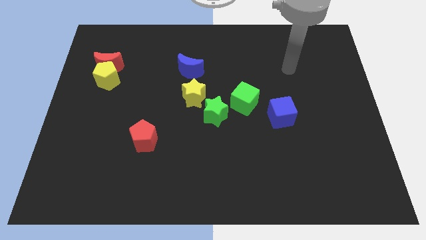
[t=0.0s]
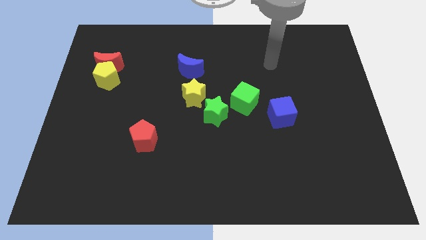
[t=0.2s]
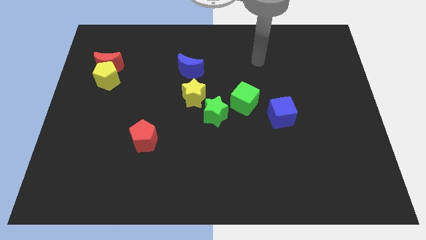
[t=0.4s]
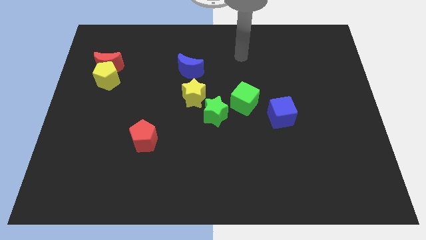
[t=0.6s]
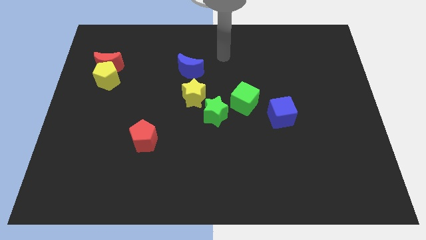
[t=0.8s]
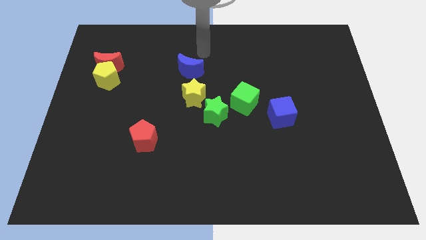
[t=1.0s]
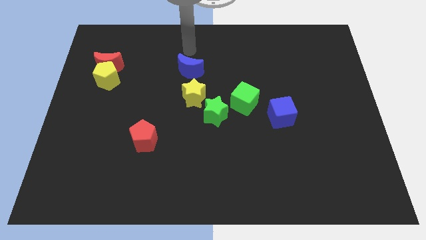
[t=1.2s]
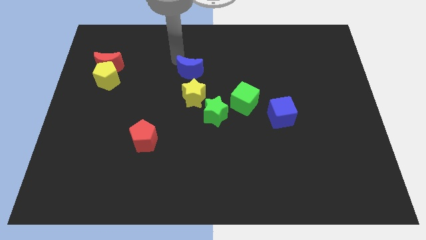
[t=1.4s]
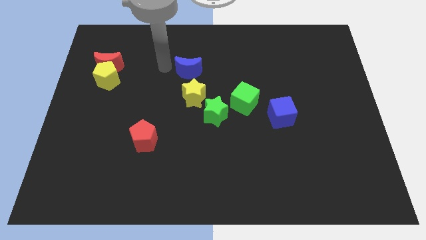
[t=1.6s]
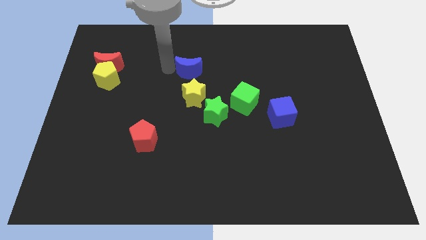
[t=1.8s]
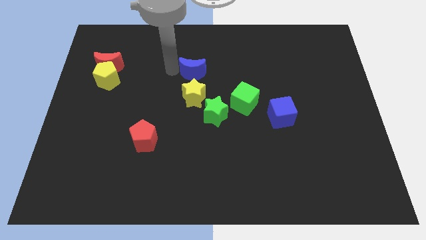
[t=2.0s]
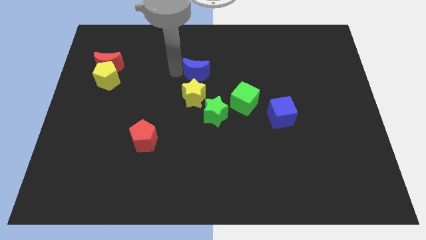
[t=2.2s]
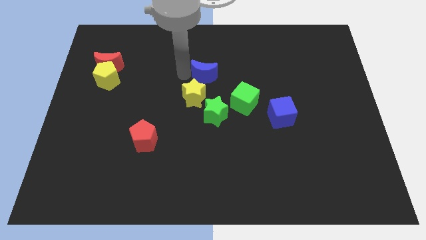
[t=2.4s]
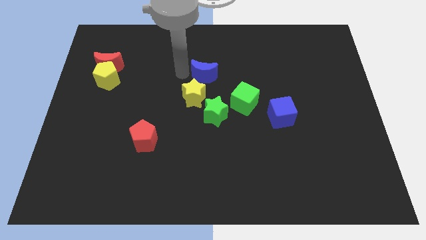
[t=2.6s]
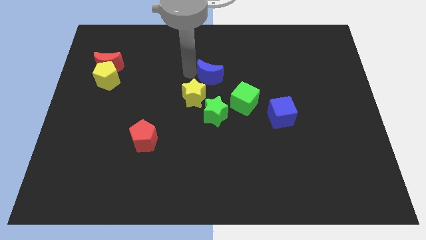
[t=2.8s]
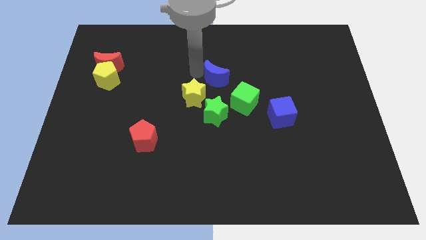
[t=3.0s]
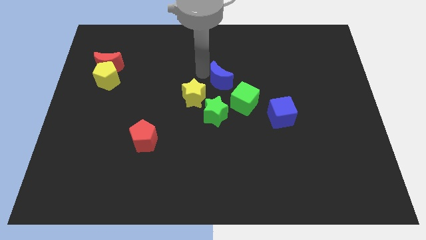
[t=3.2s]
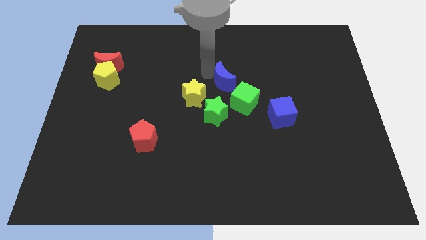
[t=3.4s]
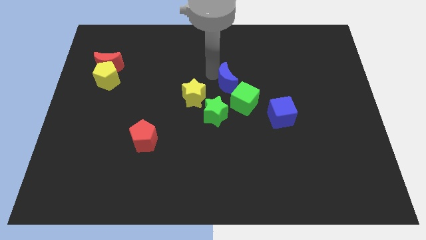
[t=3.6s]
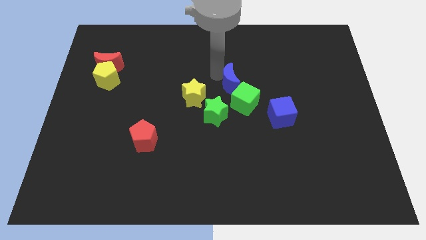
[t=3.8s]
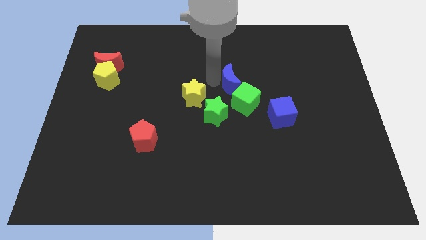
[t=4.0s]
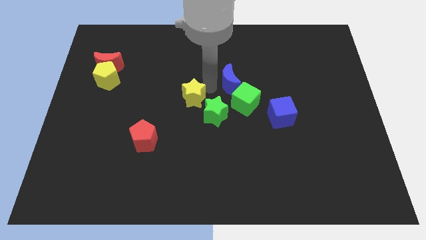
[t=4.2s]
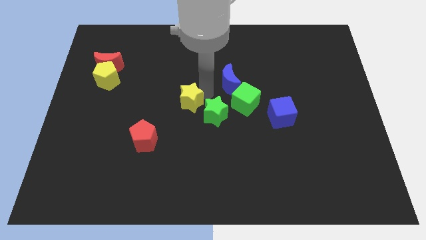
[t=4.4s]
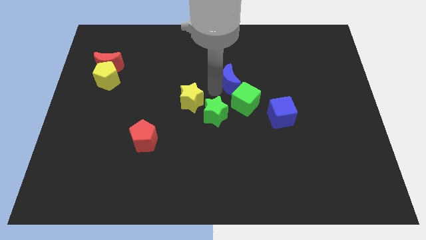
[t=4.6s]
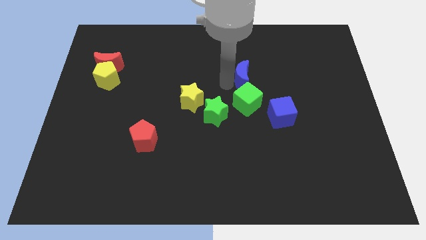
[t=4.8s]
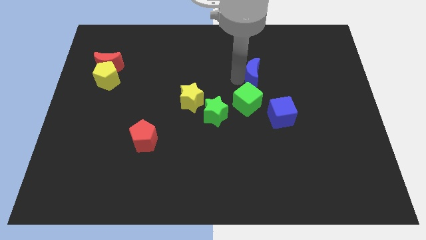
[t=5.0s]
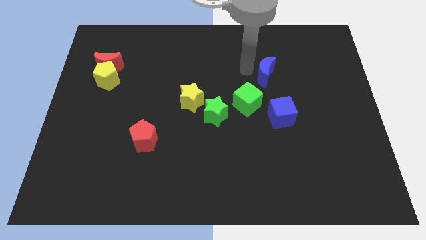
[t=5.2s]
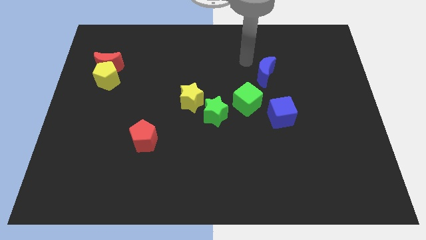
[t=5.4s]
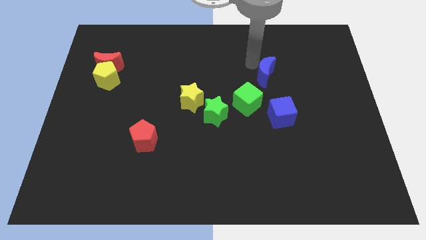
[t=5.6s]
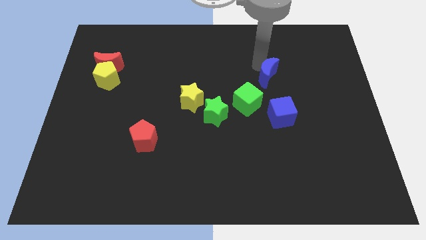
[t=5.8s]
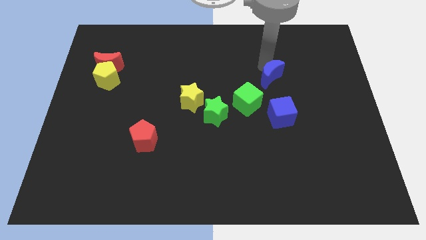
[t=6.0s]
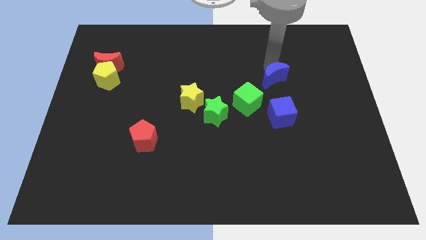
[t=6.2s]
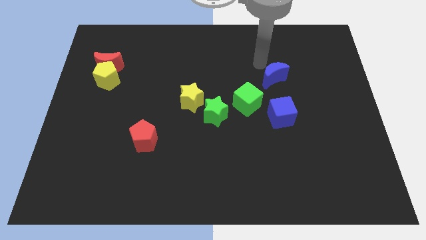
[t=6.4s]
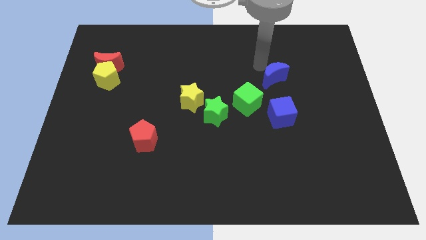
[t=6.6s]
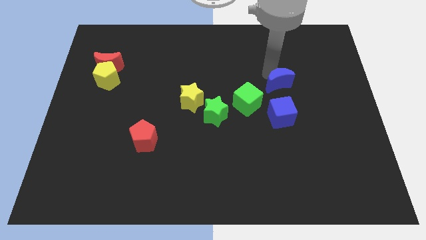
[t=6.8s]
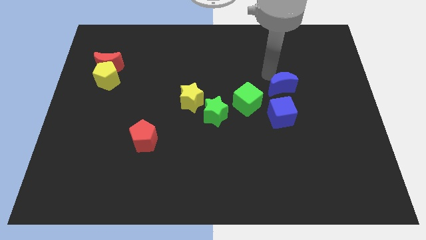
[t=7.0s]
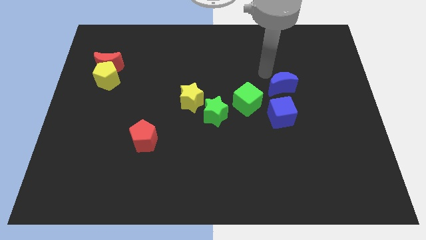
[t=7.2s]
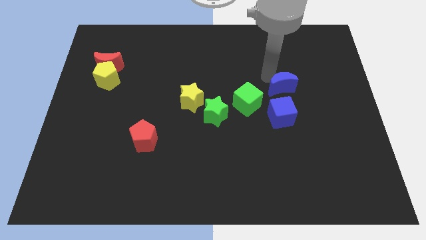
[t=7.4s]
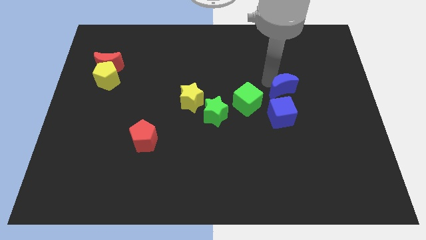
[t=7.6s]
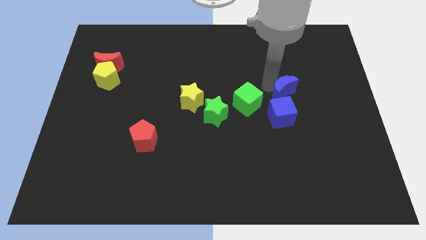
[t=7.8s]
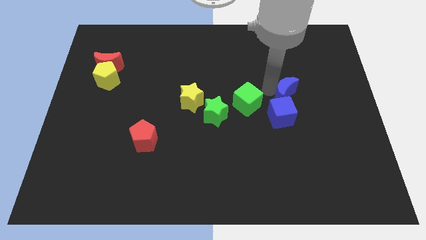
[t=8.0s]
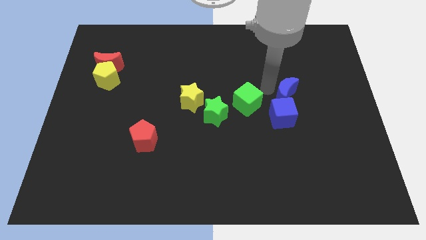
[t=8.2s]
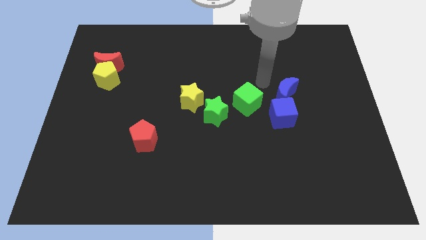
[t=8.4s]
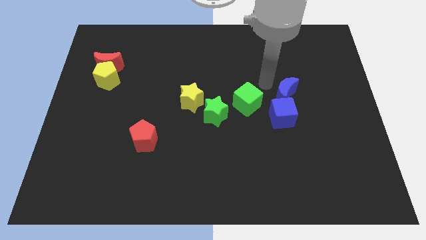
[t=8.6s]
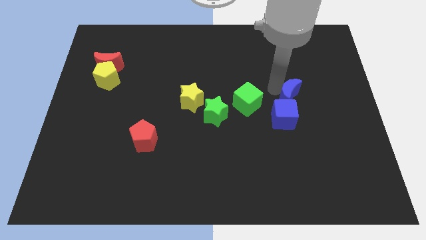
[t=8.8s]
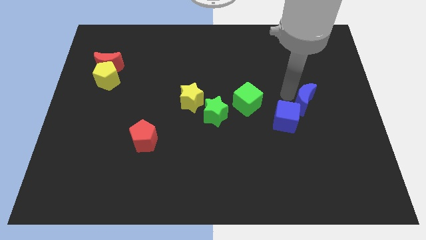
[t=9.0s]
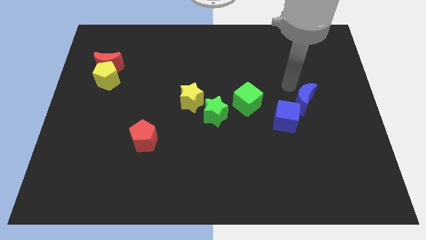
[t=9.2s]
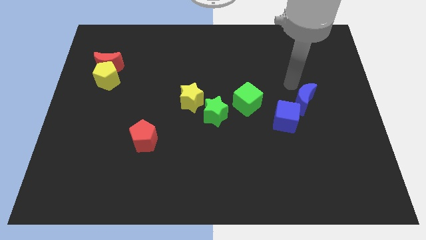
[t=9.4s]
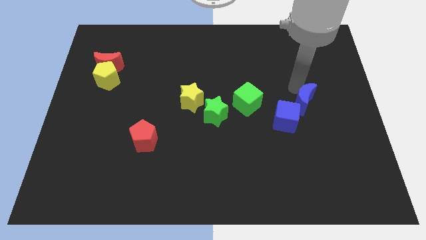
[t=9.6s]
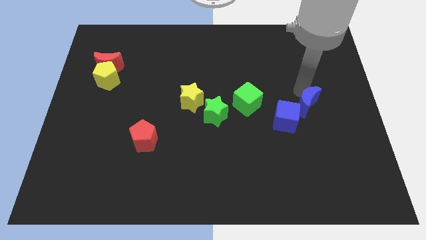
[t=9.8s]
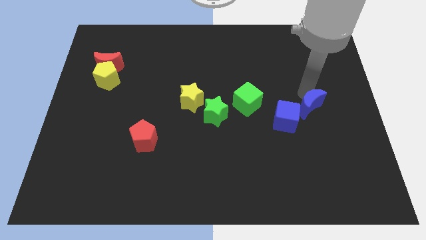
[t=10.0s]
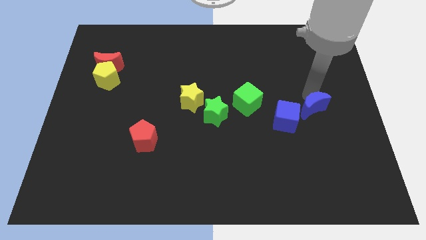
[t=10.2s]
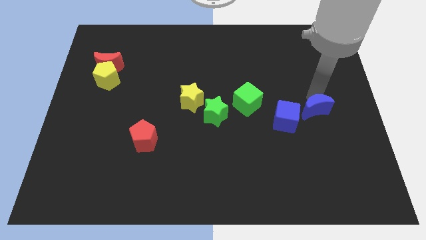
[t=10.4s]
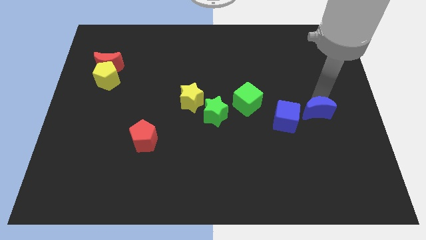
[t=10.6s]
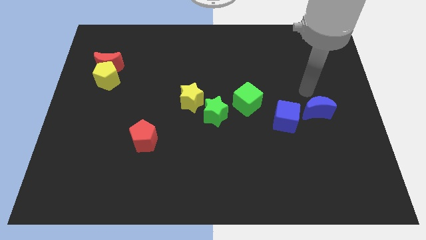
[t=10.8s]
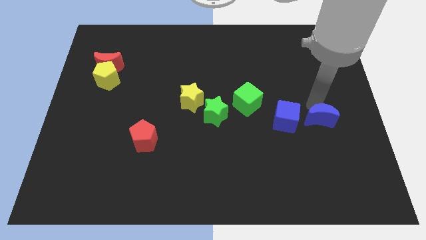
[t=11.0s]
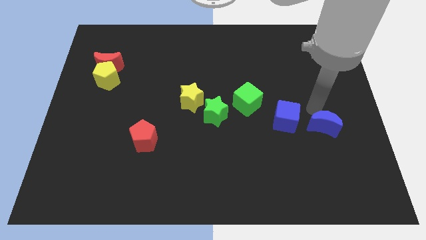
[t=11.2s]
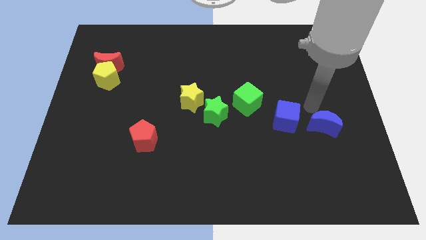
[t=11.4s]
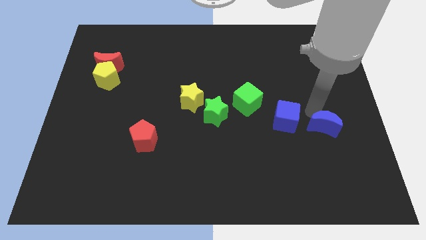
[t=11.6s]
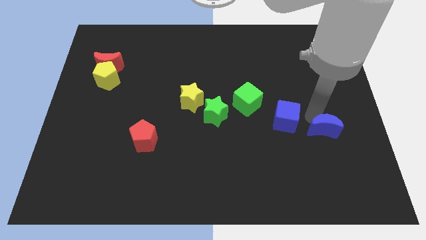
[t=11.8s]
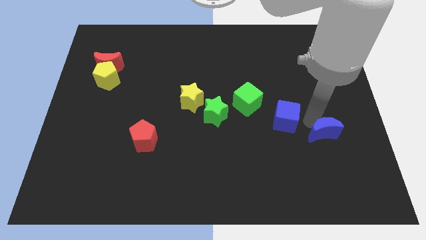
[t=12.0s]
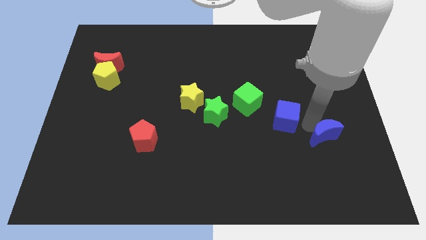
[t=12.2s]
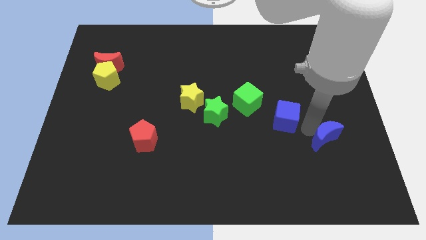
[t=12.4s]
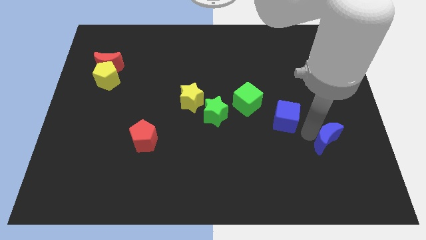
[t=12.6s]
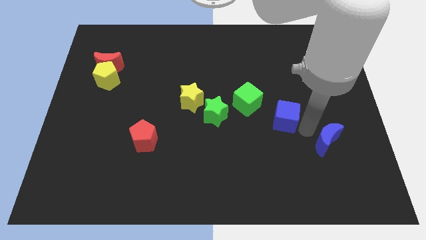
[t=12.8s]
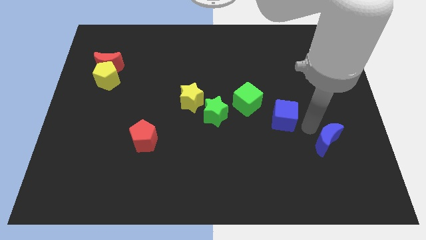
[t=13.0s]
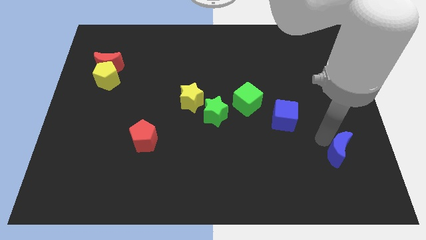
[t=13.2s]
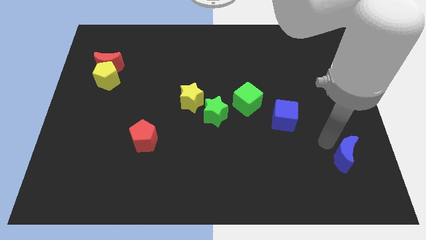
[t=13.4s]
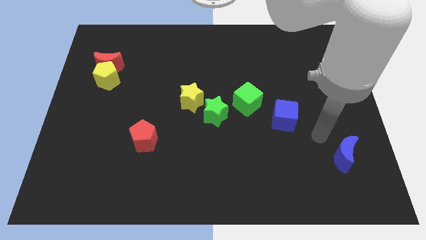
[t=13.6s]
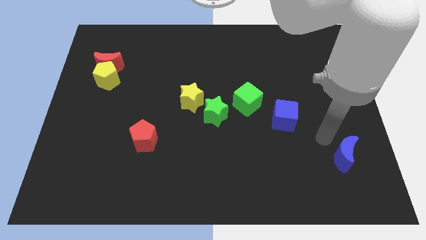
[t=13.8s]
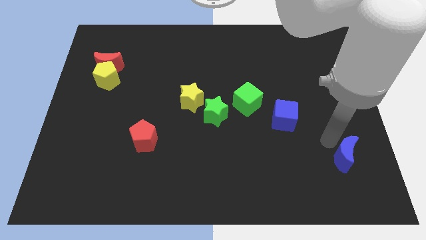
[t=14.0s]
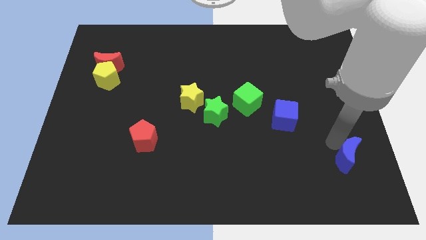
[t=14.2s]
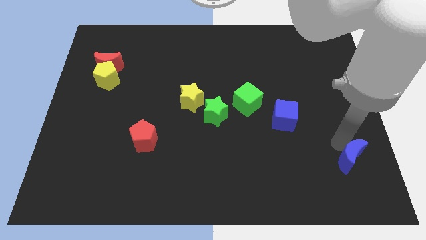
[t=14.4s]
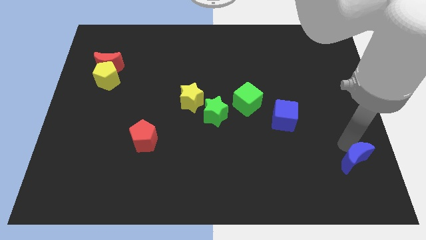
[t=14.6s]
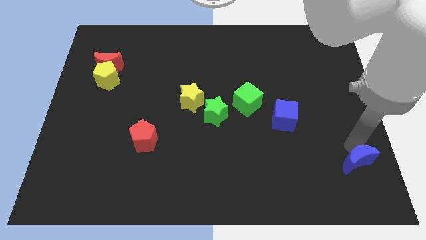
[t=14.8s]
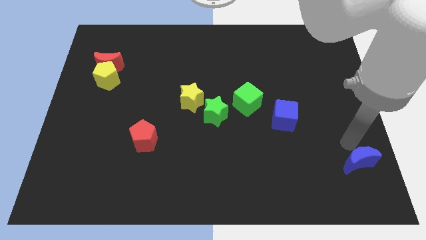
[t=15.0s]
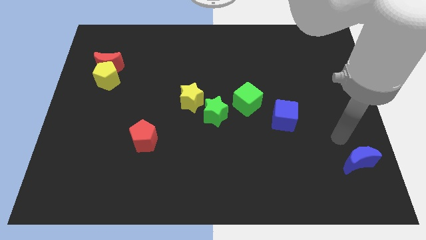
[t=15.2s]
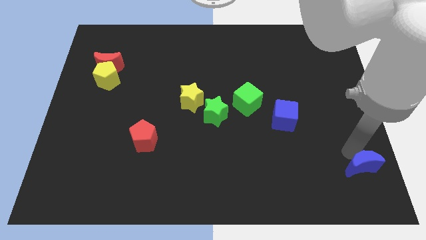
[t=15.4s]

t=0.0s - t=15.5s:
move the blue moon to the lower right corner
